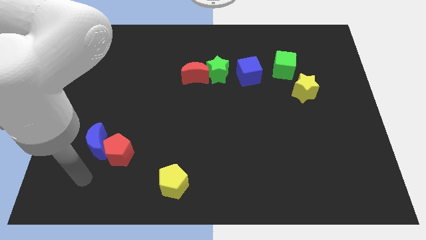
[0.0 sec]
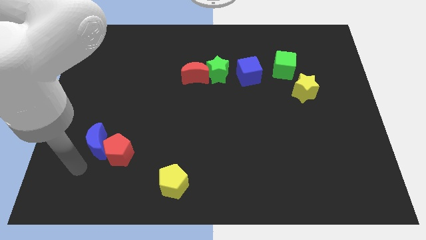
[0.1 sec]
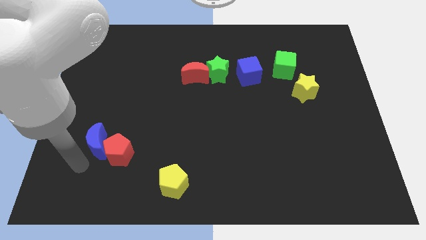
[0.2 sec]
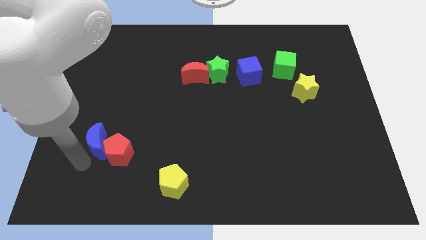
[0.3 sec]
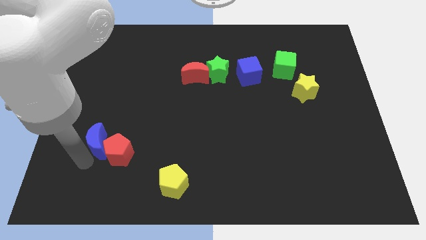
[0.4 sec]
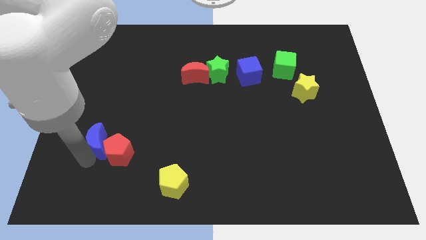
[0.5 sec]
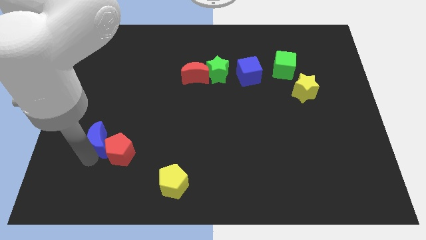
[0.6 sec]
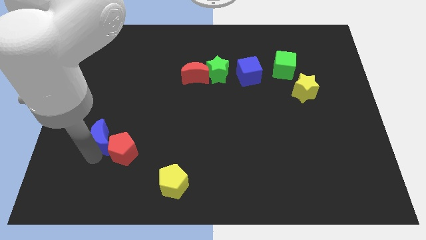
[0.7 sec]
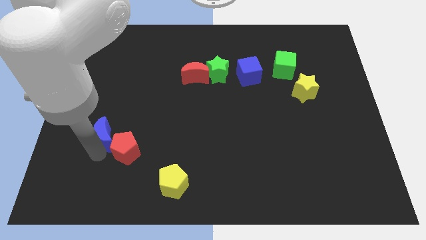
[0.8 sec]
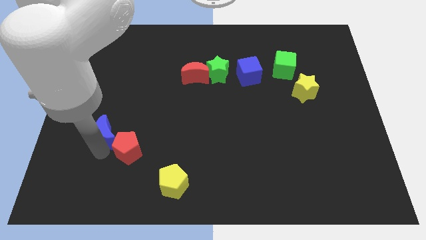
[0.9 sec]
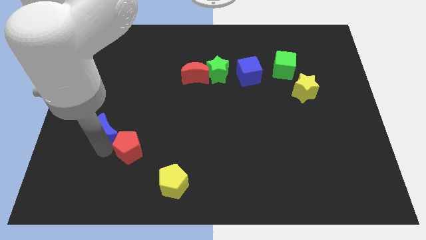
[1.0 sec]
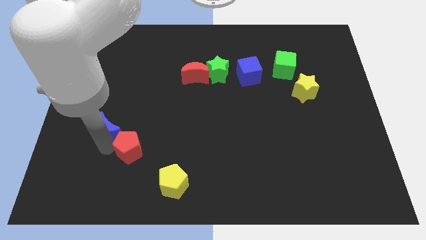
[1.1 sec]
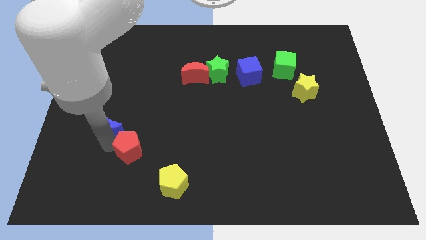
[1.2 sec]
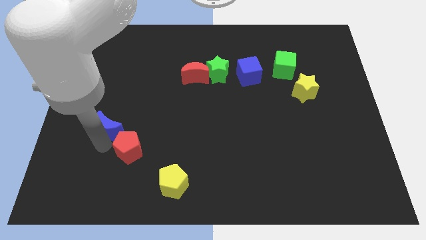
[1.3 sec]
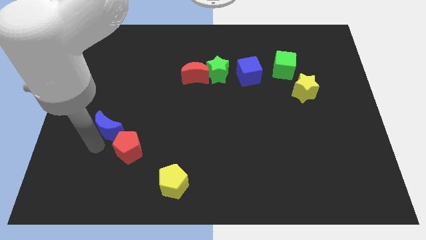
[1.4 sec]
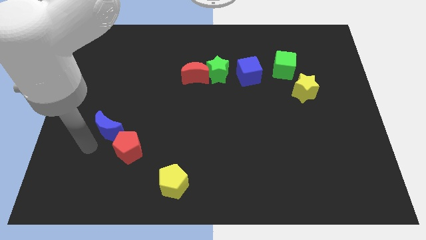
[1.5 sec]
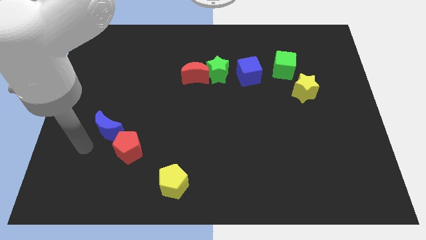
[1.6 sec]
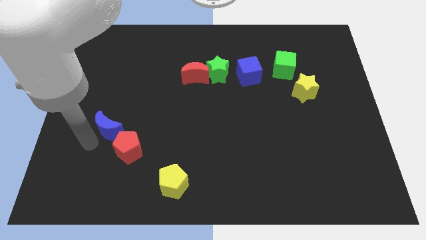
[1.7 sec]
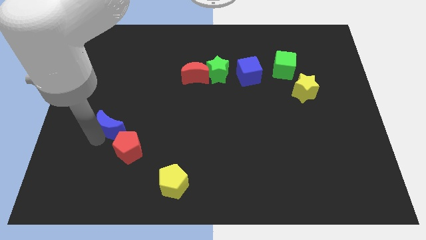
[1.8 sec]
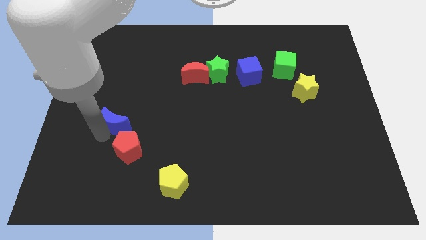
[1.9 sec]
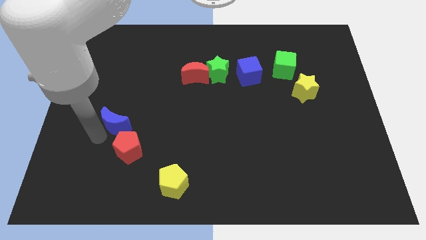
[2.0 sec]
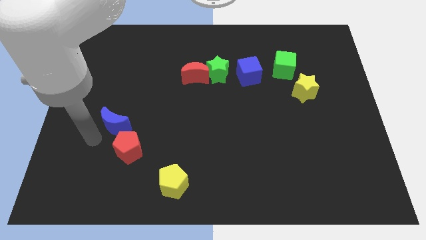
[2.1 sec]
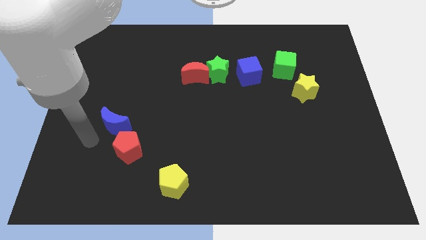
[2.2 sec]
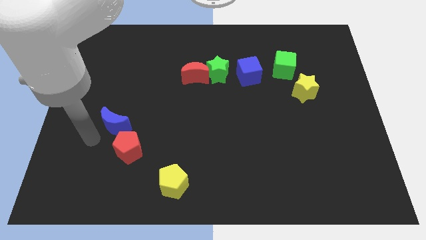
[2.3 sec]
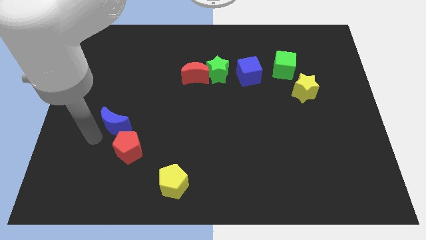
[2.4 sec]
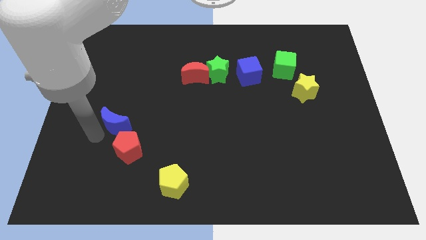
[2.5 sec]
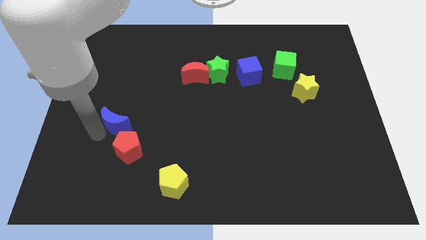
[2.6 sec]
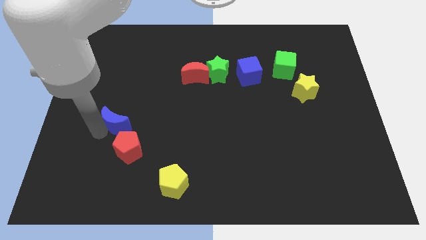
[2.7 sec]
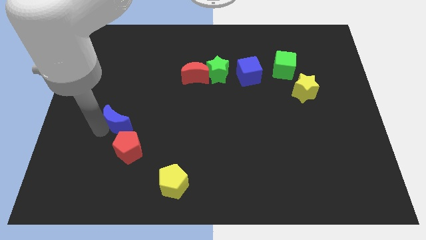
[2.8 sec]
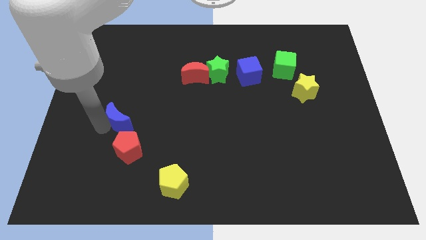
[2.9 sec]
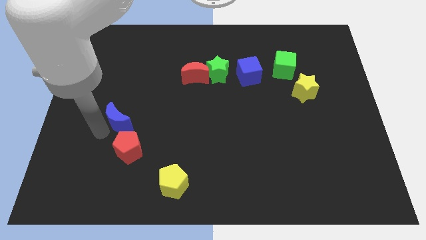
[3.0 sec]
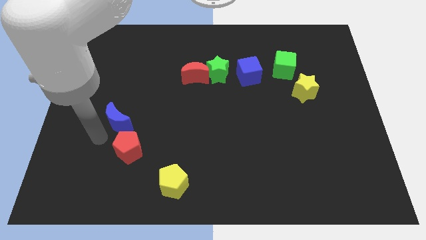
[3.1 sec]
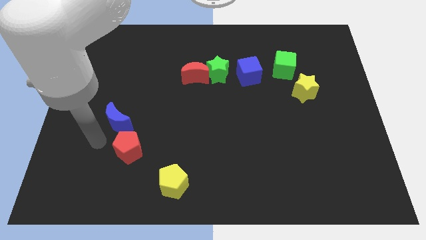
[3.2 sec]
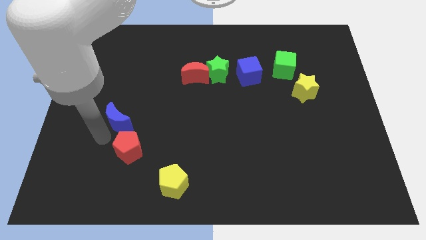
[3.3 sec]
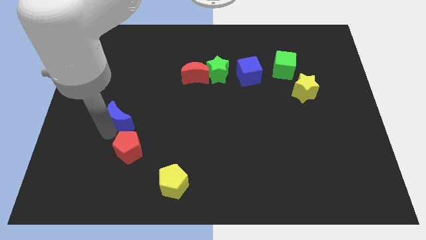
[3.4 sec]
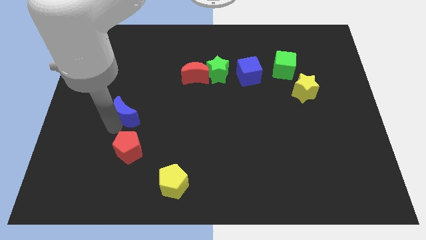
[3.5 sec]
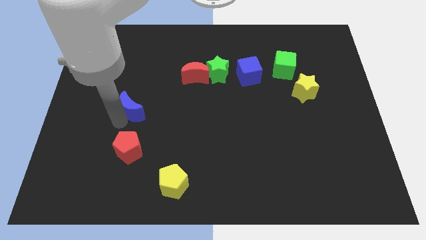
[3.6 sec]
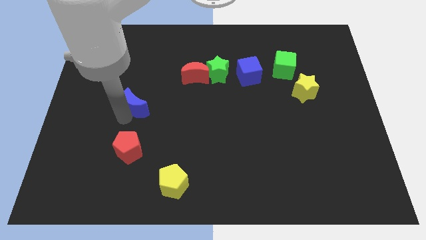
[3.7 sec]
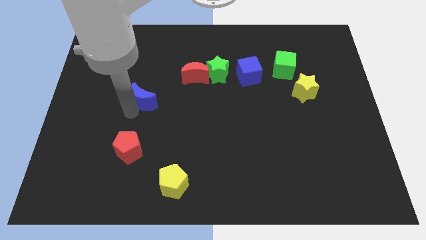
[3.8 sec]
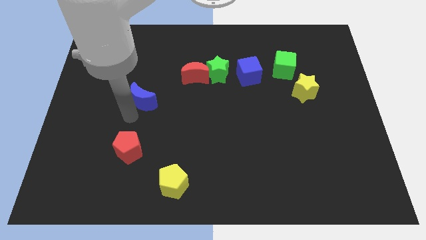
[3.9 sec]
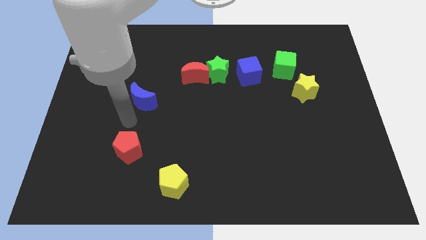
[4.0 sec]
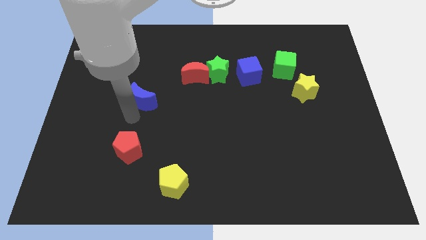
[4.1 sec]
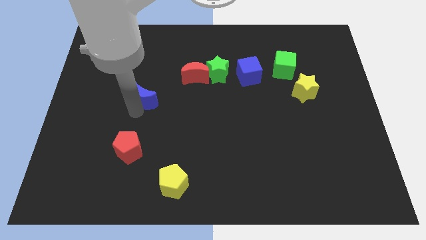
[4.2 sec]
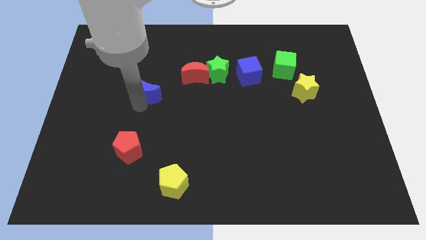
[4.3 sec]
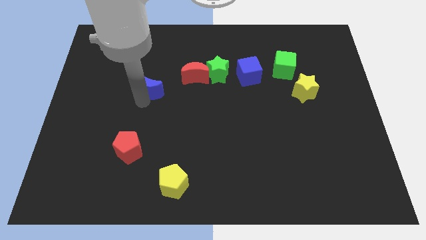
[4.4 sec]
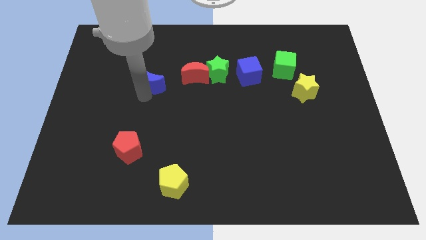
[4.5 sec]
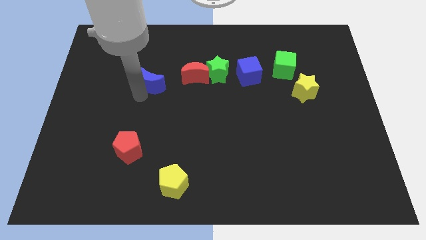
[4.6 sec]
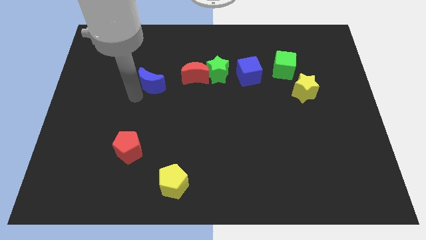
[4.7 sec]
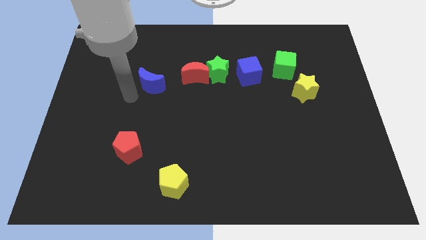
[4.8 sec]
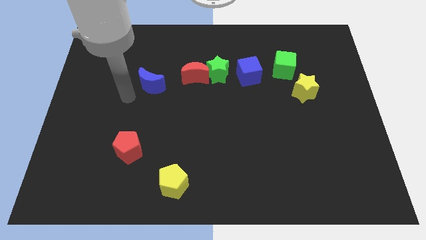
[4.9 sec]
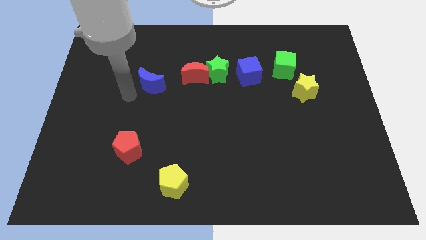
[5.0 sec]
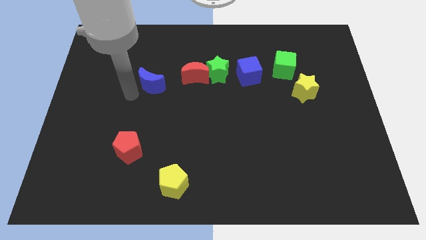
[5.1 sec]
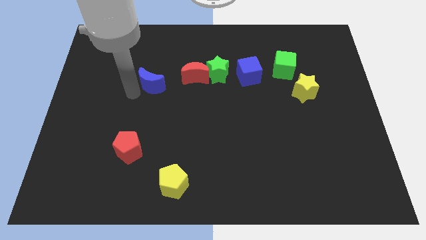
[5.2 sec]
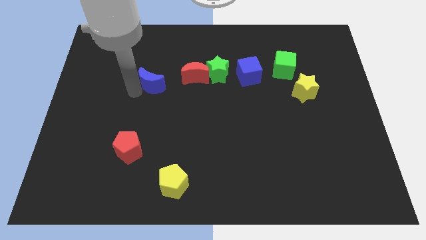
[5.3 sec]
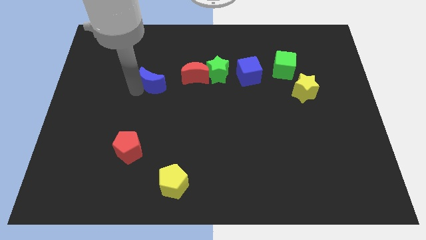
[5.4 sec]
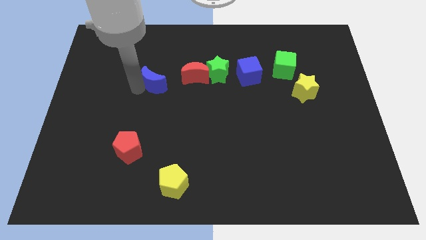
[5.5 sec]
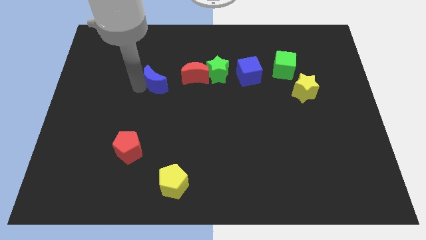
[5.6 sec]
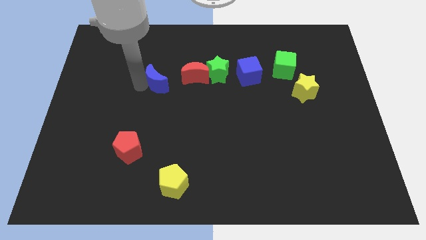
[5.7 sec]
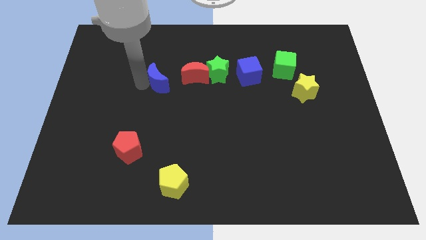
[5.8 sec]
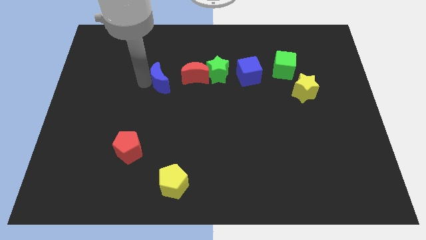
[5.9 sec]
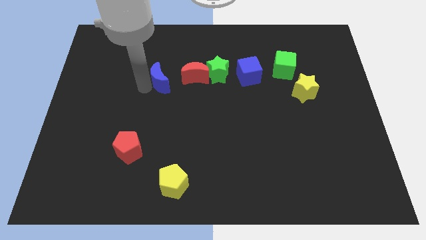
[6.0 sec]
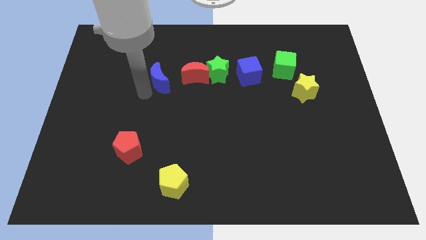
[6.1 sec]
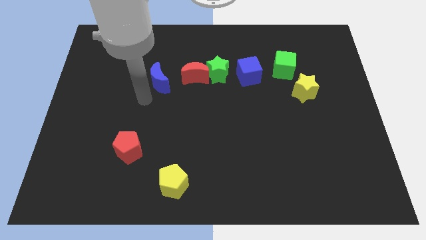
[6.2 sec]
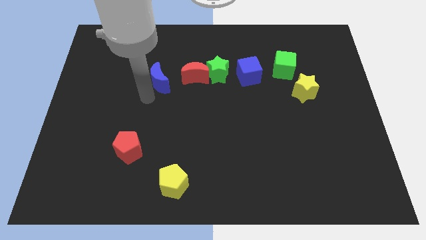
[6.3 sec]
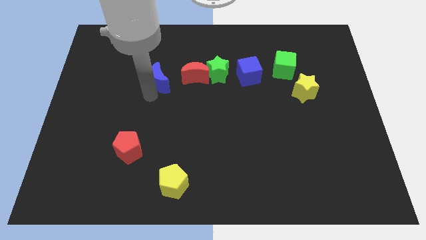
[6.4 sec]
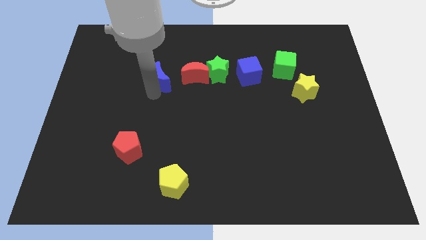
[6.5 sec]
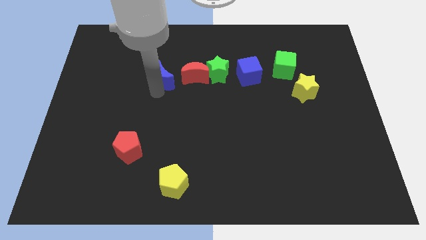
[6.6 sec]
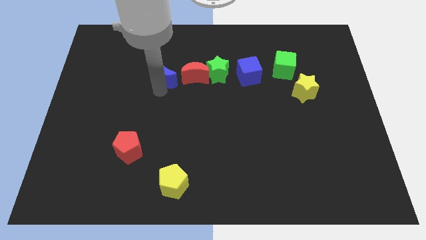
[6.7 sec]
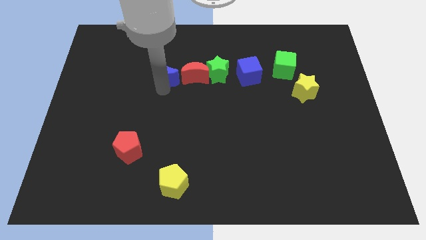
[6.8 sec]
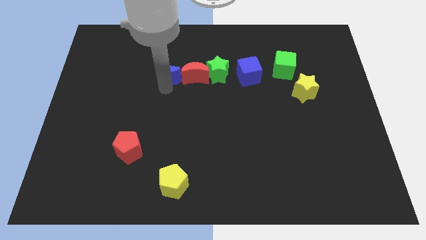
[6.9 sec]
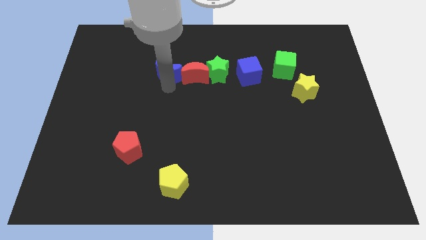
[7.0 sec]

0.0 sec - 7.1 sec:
slide the blue moon to the top left of the red moon

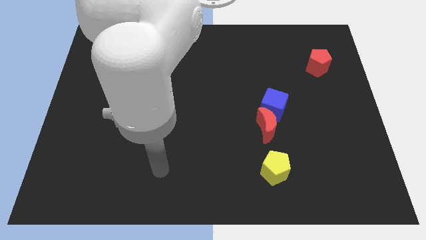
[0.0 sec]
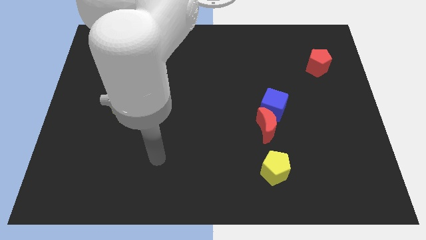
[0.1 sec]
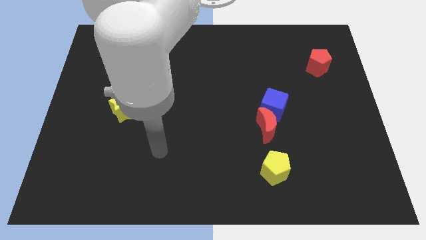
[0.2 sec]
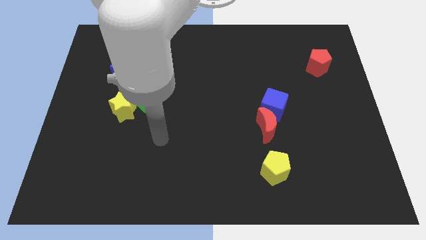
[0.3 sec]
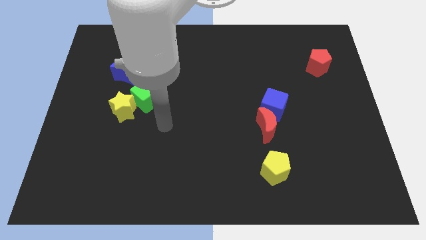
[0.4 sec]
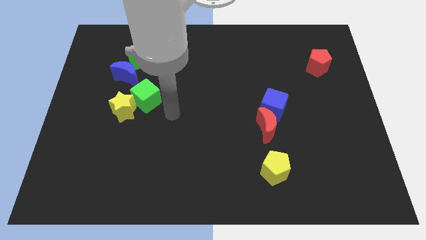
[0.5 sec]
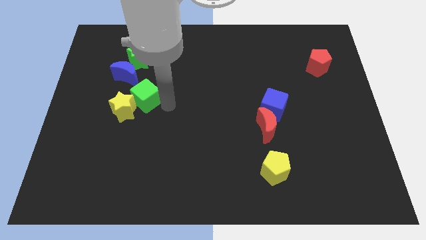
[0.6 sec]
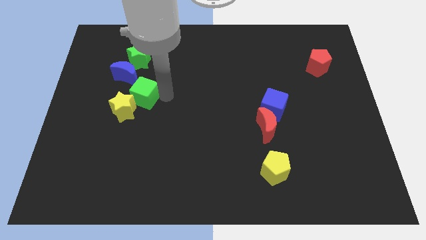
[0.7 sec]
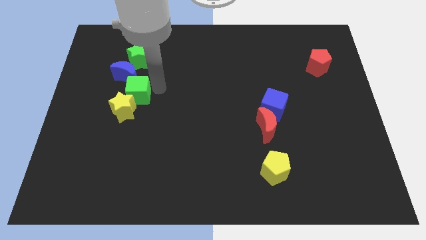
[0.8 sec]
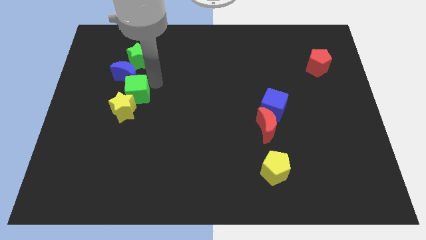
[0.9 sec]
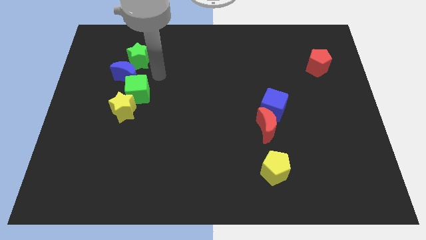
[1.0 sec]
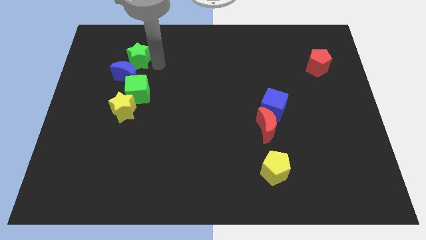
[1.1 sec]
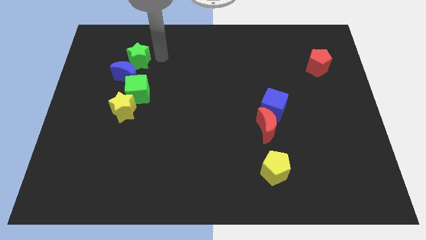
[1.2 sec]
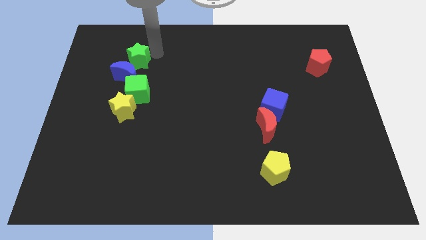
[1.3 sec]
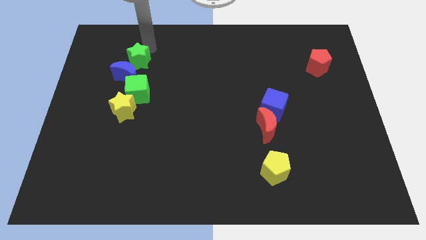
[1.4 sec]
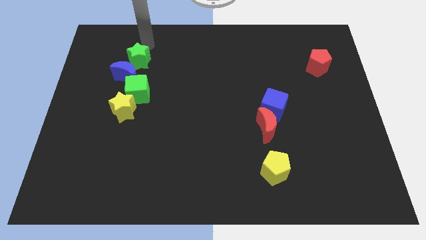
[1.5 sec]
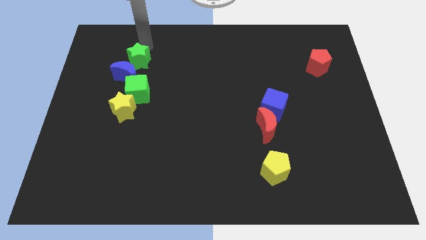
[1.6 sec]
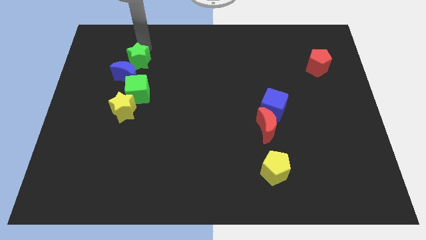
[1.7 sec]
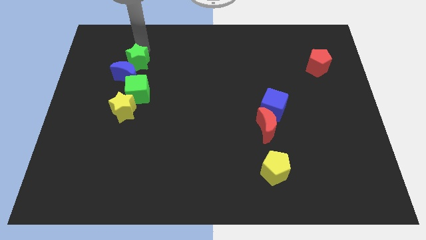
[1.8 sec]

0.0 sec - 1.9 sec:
move the green star to the top of the yellow star
